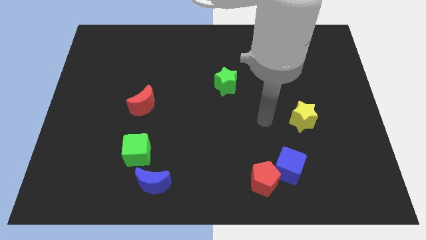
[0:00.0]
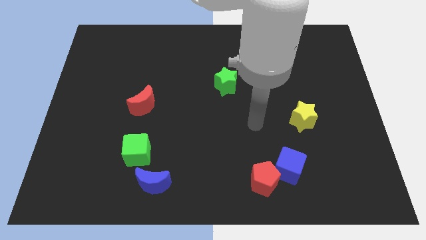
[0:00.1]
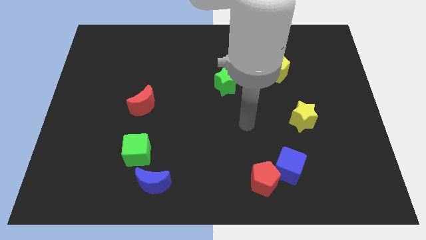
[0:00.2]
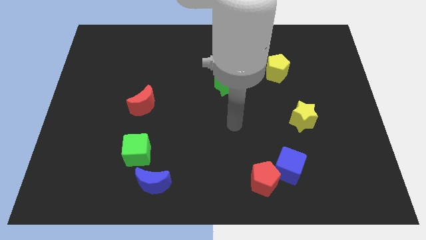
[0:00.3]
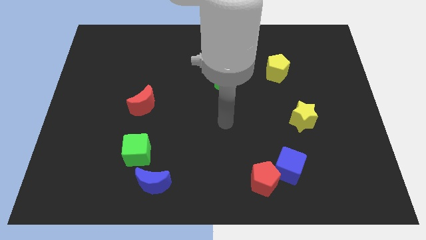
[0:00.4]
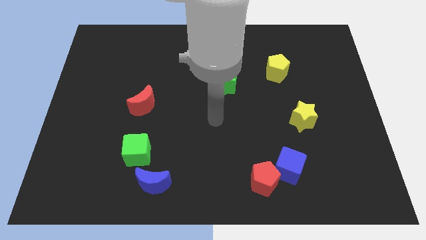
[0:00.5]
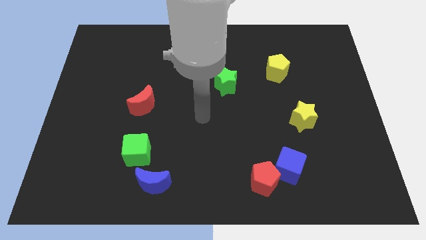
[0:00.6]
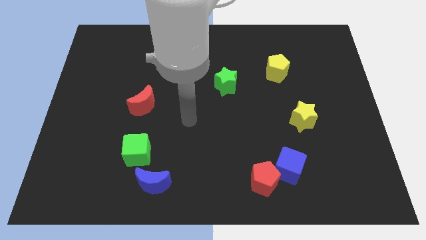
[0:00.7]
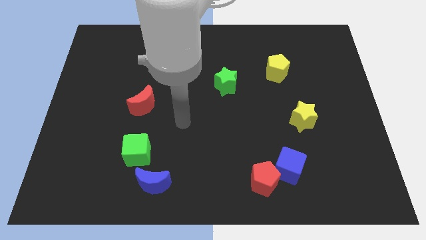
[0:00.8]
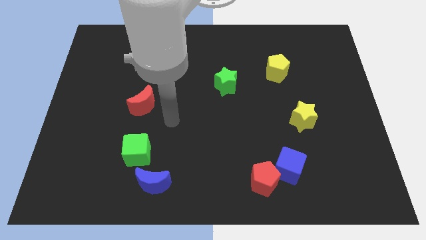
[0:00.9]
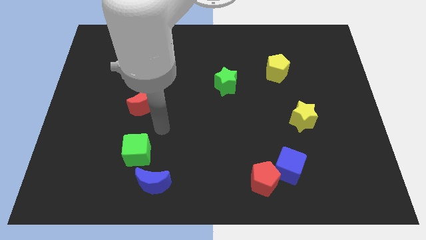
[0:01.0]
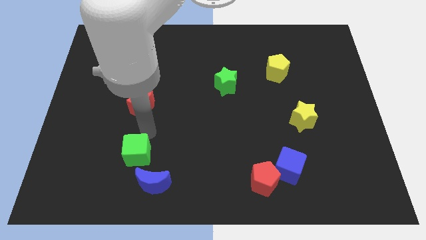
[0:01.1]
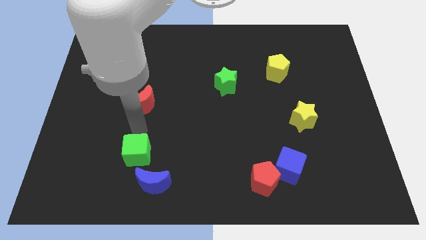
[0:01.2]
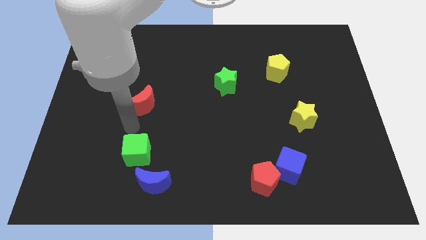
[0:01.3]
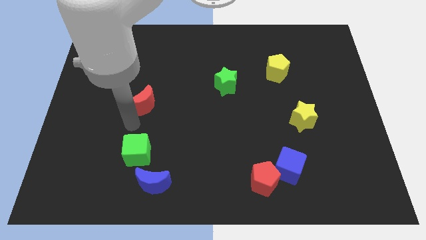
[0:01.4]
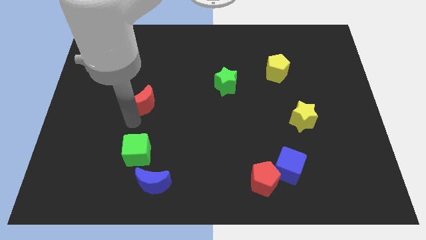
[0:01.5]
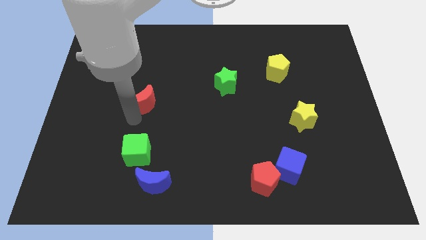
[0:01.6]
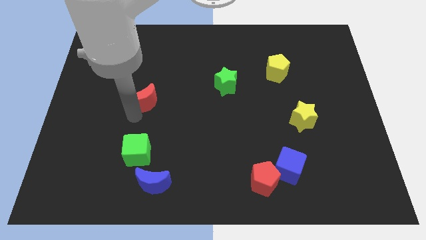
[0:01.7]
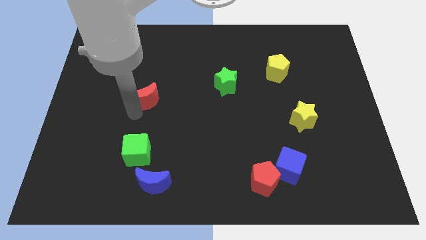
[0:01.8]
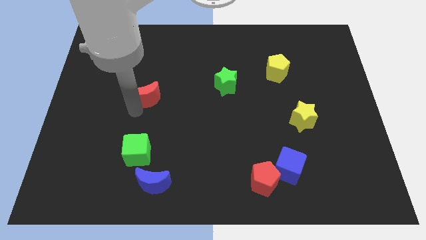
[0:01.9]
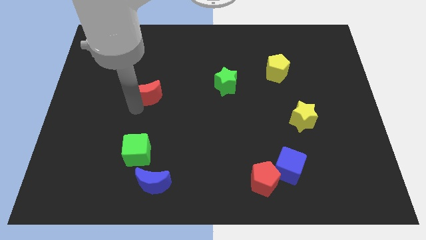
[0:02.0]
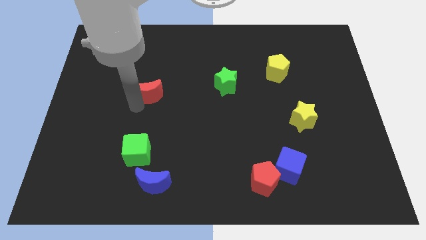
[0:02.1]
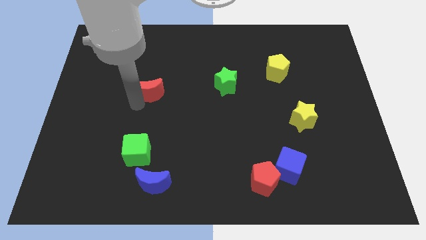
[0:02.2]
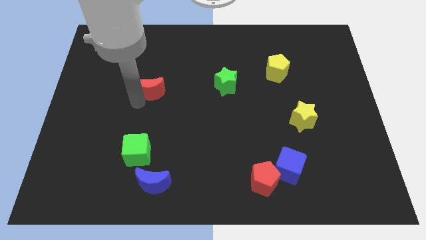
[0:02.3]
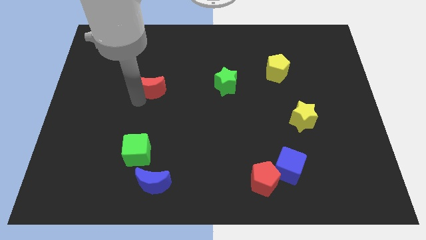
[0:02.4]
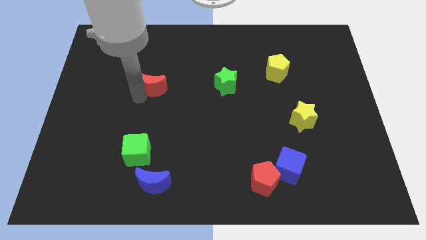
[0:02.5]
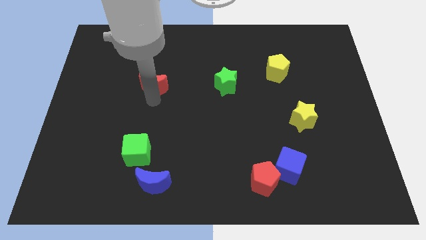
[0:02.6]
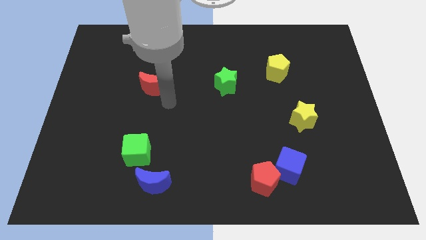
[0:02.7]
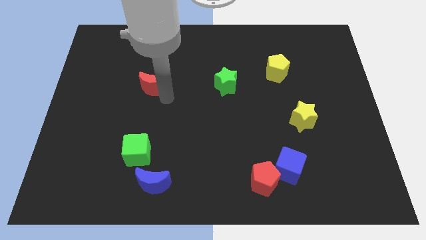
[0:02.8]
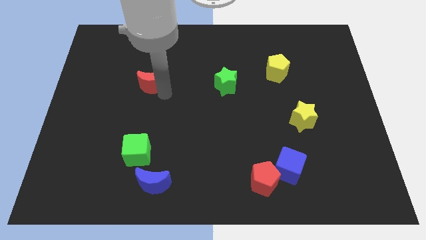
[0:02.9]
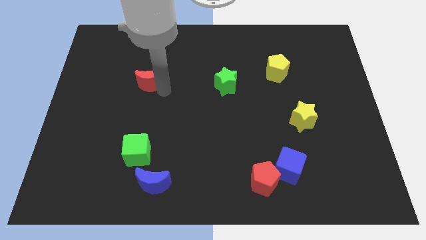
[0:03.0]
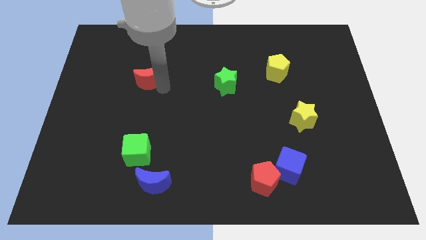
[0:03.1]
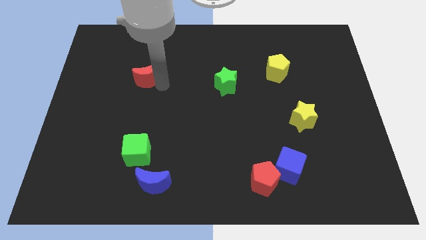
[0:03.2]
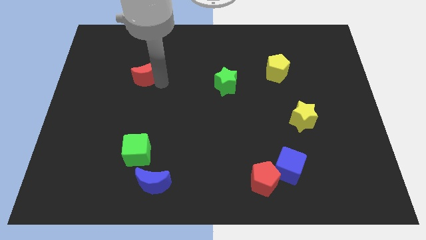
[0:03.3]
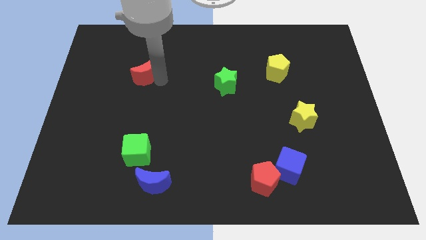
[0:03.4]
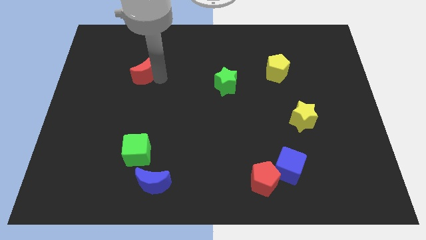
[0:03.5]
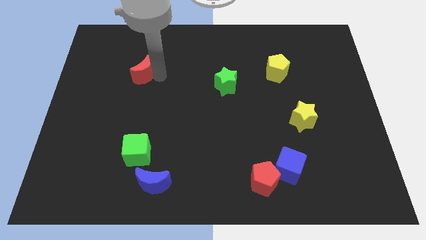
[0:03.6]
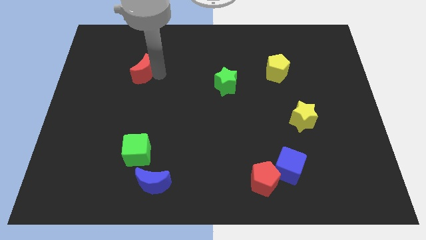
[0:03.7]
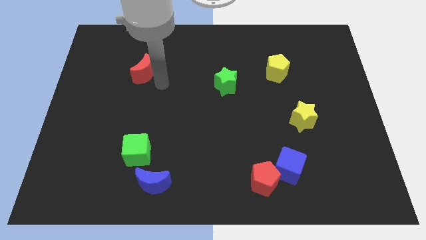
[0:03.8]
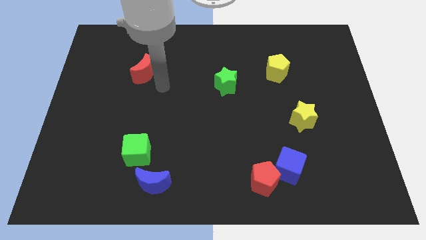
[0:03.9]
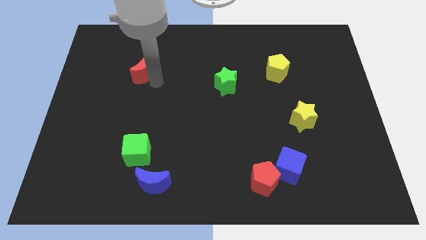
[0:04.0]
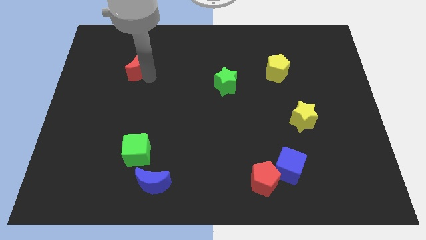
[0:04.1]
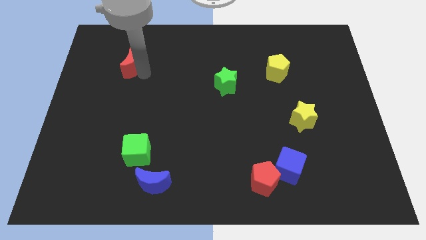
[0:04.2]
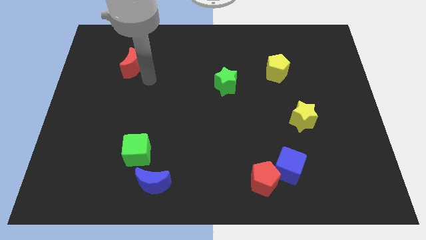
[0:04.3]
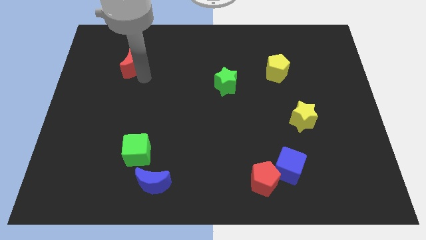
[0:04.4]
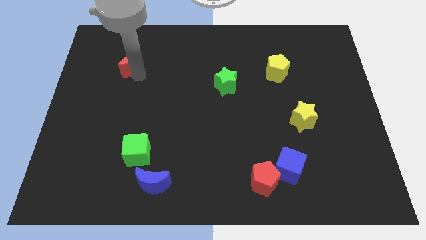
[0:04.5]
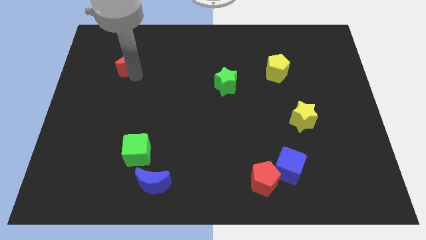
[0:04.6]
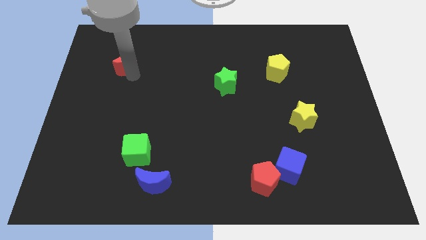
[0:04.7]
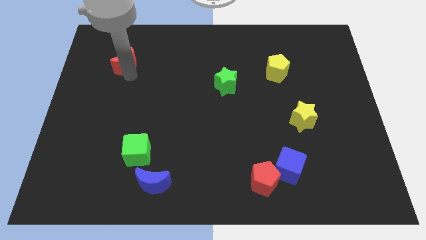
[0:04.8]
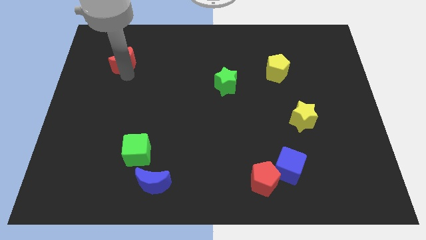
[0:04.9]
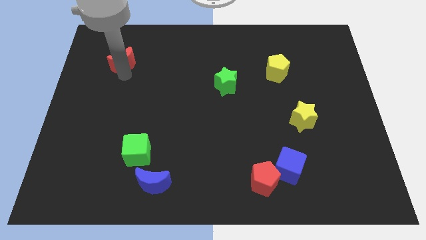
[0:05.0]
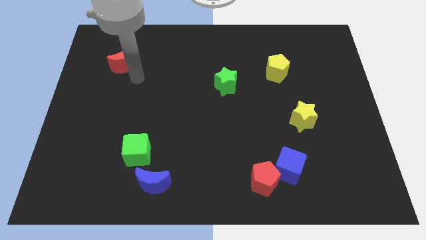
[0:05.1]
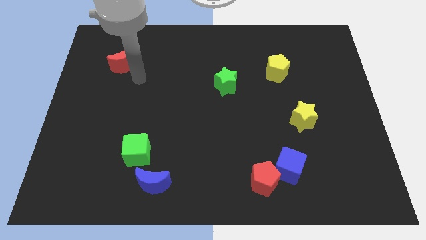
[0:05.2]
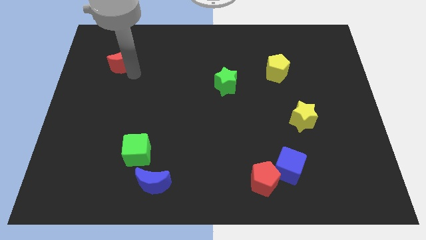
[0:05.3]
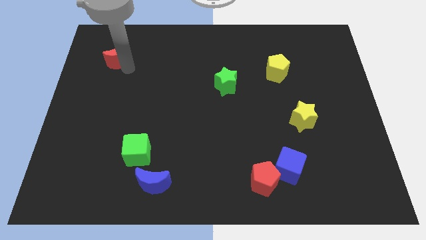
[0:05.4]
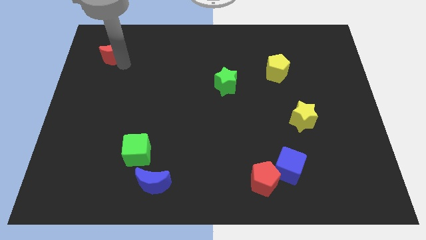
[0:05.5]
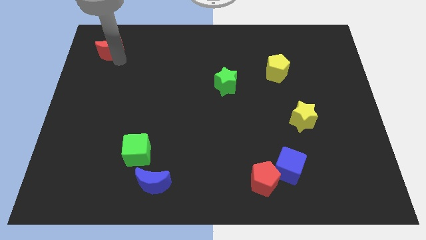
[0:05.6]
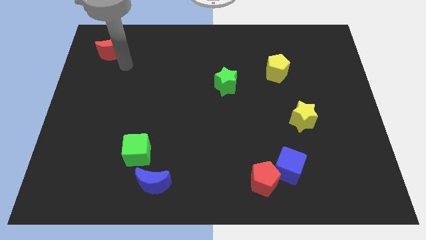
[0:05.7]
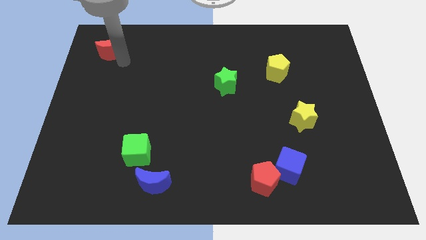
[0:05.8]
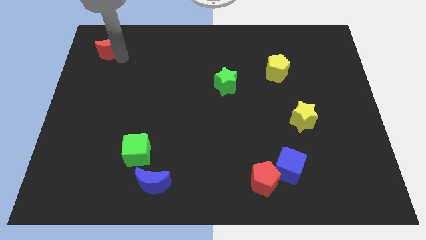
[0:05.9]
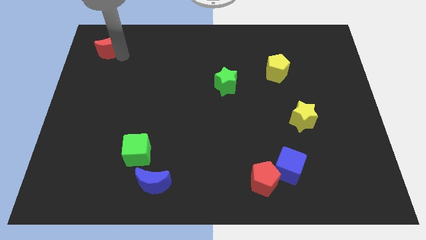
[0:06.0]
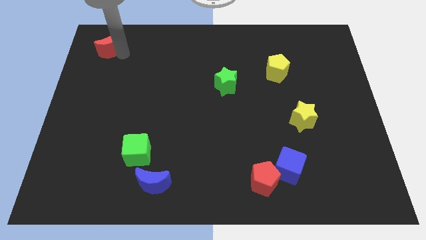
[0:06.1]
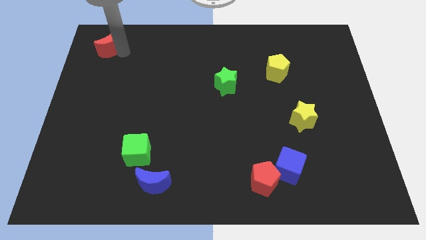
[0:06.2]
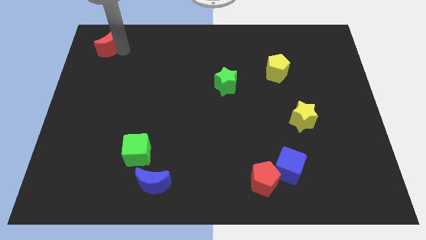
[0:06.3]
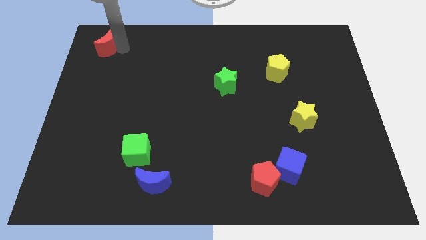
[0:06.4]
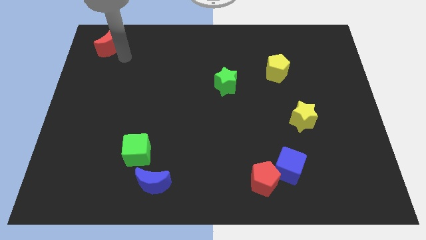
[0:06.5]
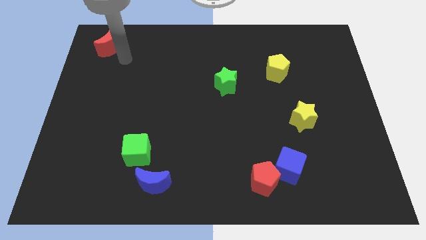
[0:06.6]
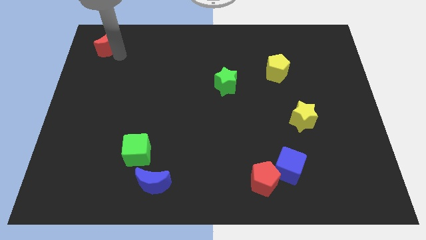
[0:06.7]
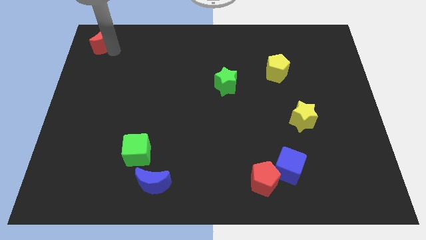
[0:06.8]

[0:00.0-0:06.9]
push the red moon to the top left

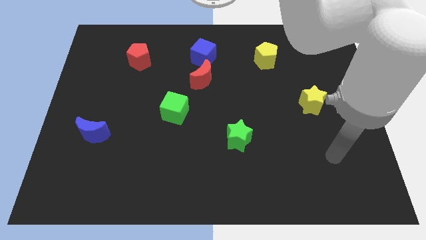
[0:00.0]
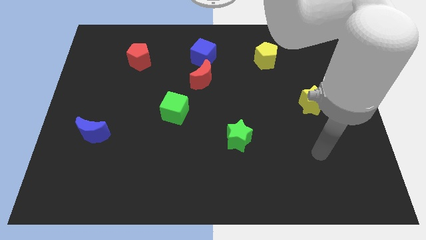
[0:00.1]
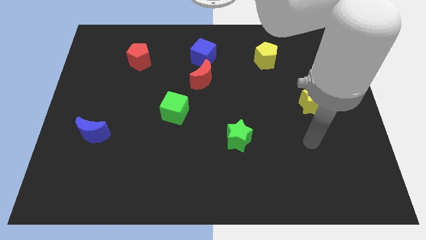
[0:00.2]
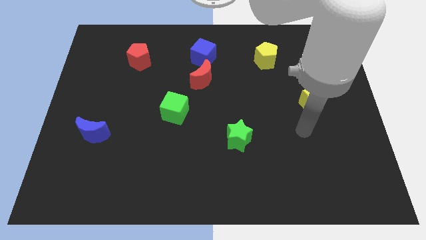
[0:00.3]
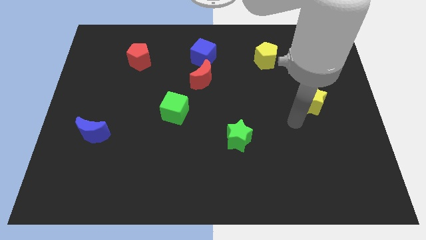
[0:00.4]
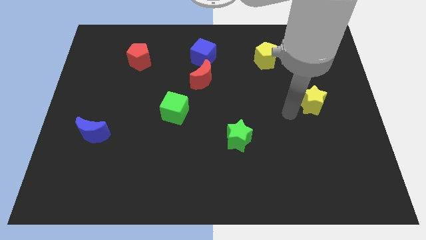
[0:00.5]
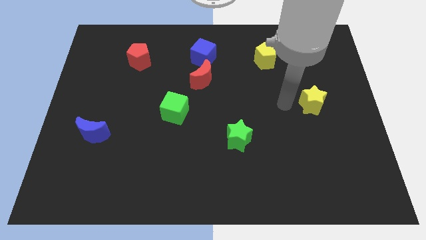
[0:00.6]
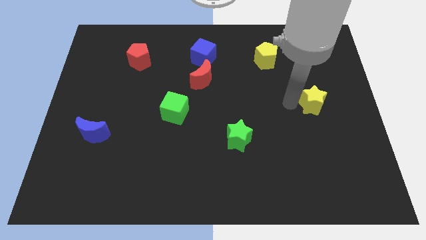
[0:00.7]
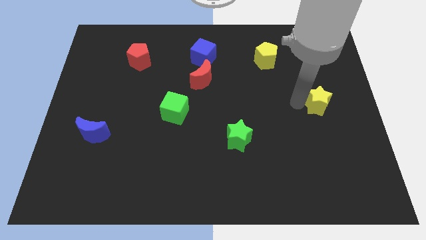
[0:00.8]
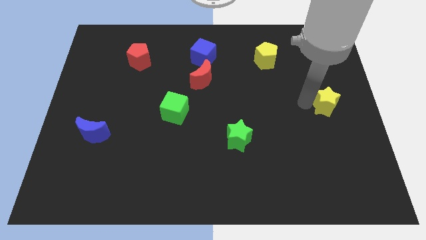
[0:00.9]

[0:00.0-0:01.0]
move the yellow star to the right side of the board
